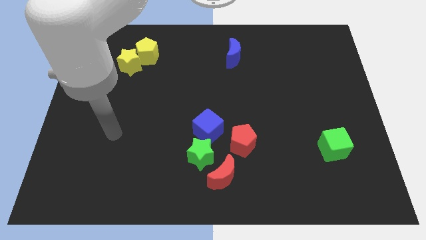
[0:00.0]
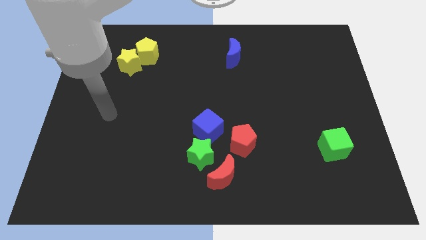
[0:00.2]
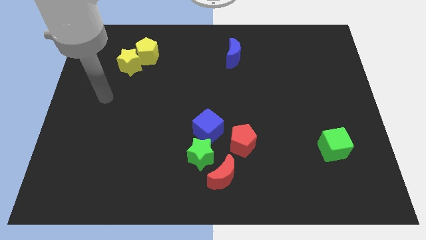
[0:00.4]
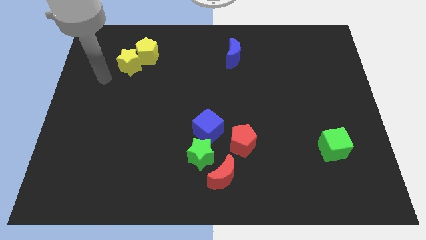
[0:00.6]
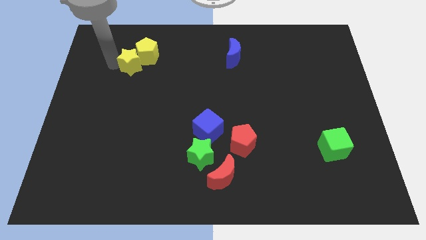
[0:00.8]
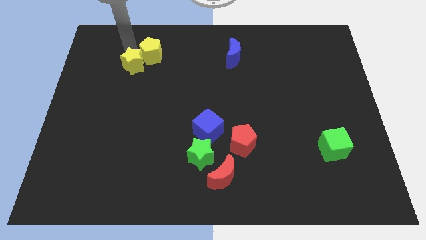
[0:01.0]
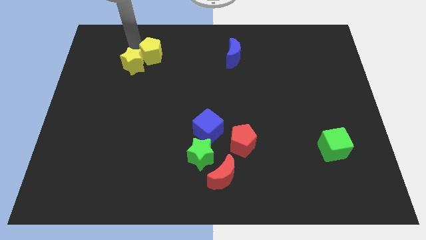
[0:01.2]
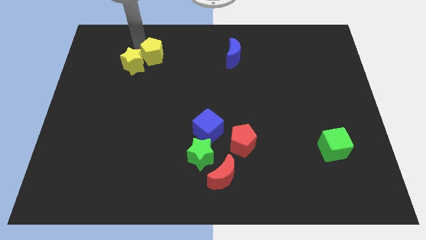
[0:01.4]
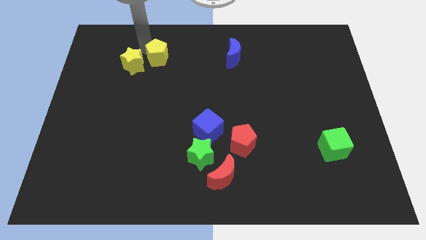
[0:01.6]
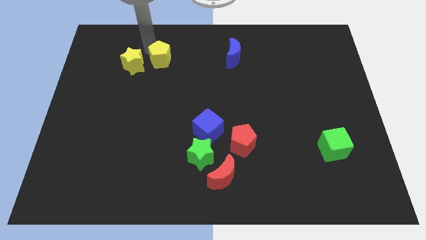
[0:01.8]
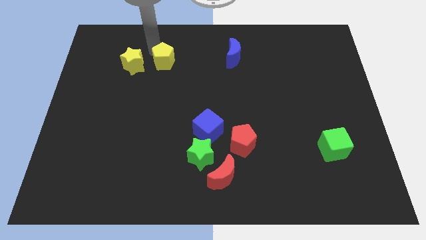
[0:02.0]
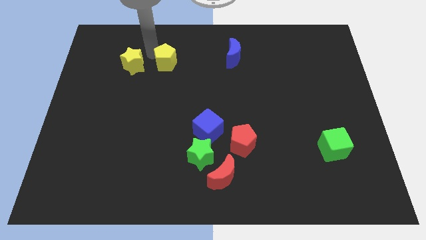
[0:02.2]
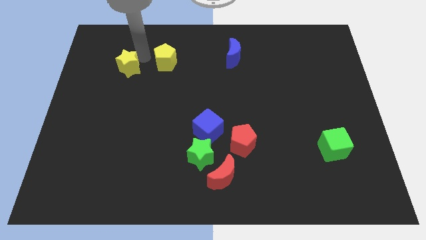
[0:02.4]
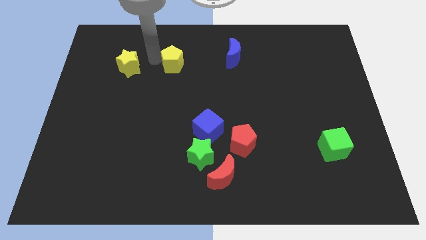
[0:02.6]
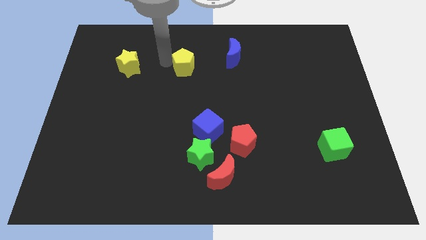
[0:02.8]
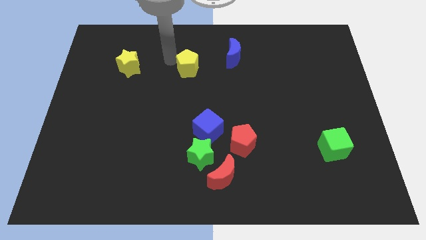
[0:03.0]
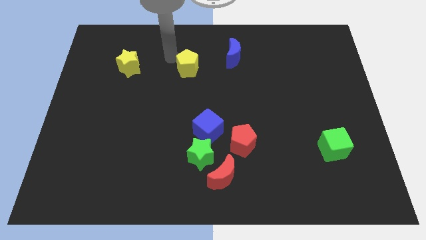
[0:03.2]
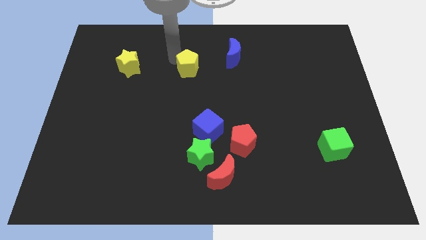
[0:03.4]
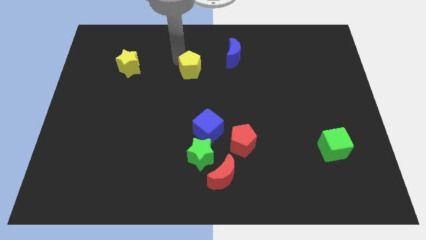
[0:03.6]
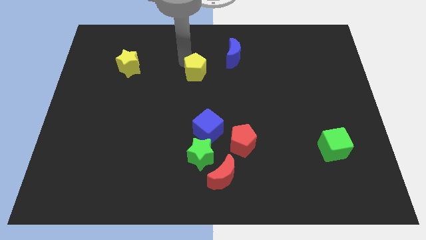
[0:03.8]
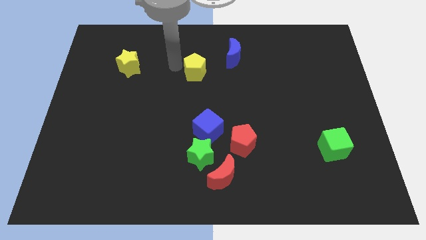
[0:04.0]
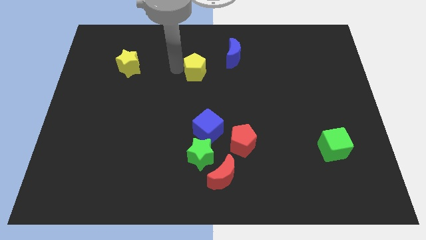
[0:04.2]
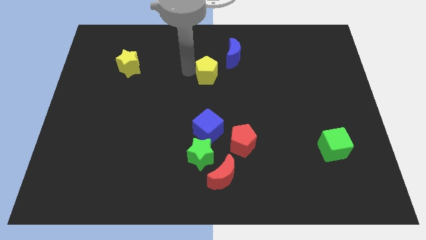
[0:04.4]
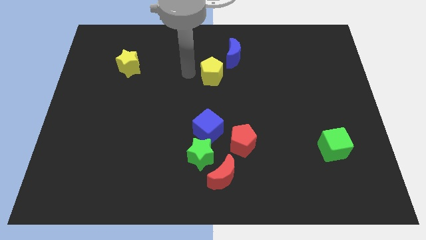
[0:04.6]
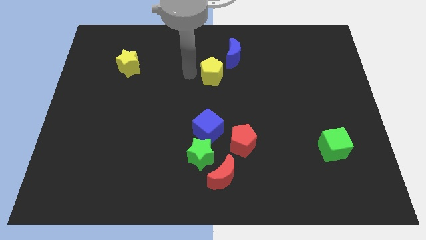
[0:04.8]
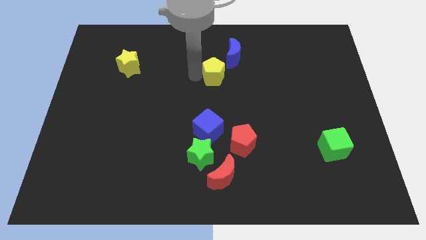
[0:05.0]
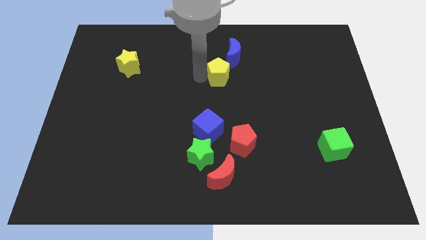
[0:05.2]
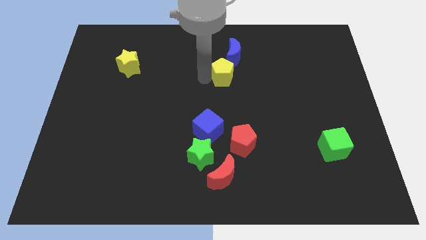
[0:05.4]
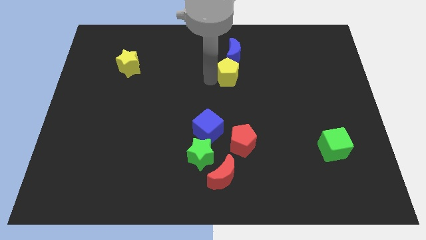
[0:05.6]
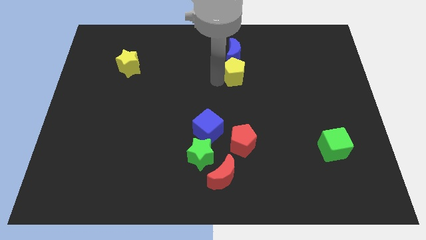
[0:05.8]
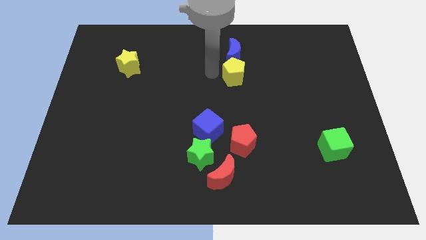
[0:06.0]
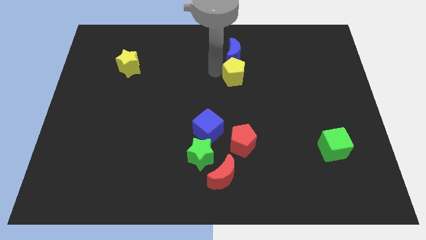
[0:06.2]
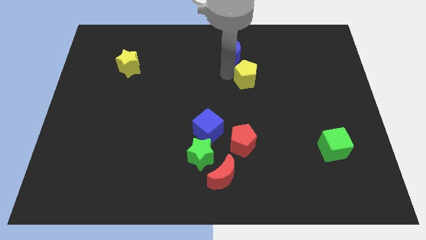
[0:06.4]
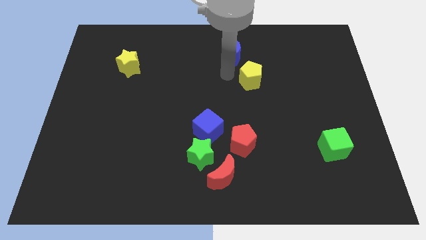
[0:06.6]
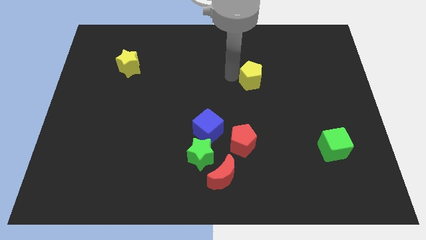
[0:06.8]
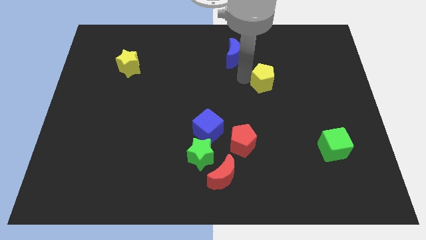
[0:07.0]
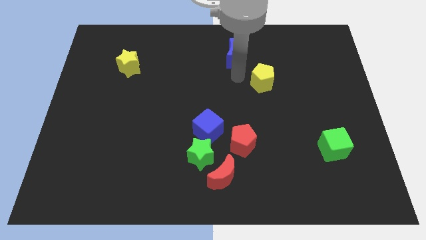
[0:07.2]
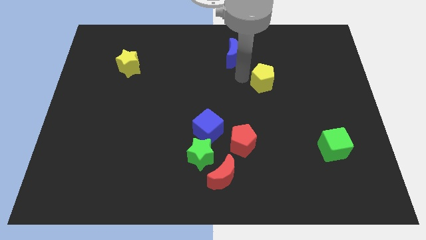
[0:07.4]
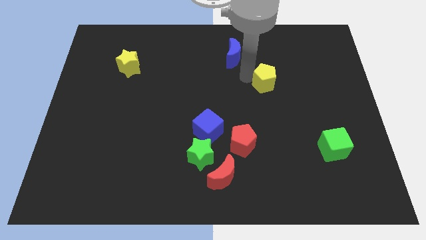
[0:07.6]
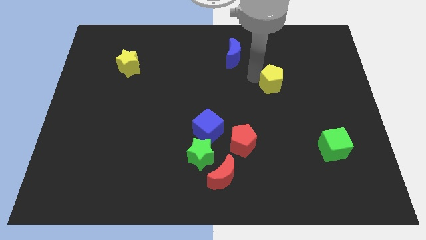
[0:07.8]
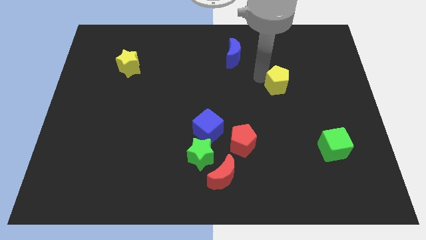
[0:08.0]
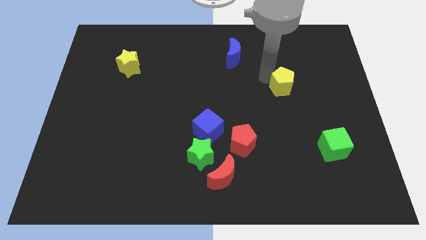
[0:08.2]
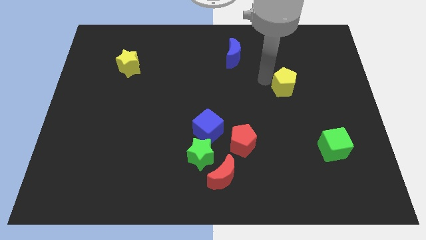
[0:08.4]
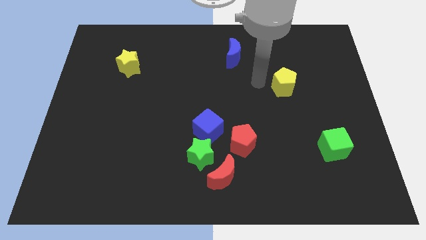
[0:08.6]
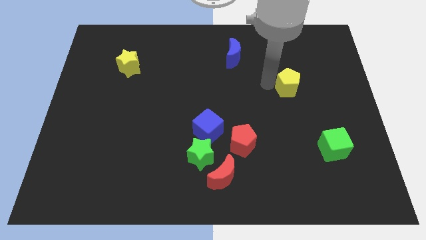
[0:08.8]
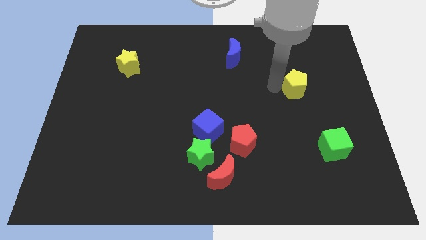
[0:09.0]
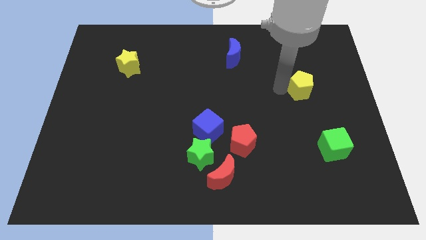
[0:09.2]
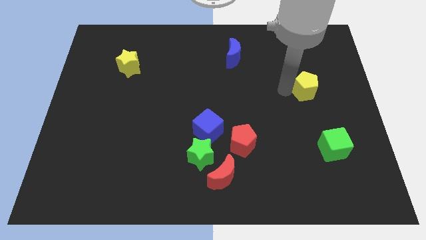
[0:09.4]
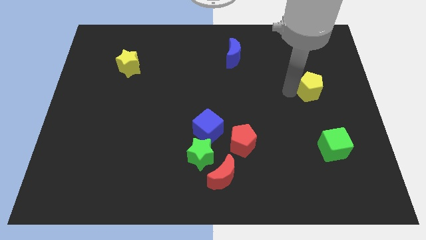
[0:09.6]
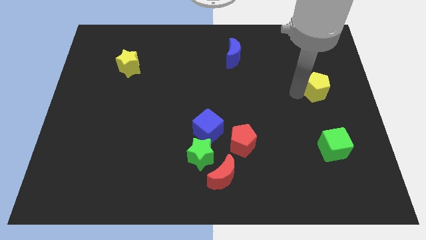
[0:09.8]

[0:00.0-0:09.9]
push the yellow pentagon to the center right

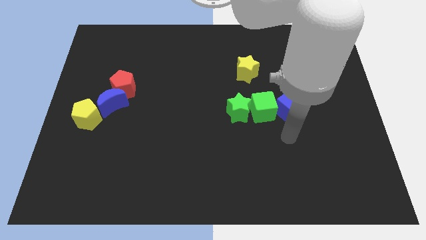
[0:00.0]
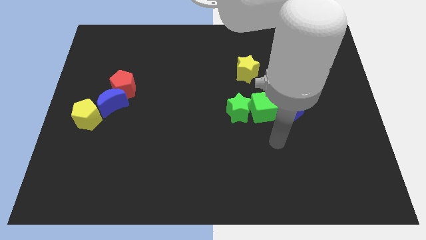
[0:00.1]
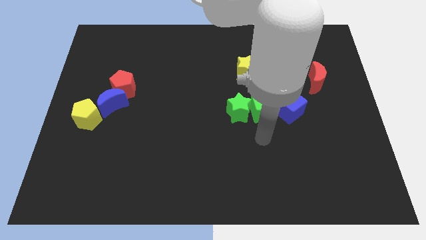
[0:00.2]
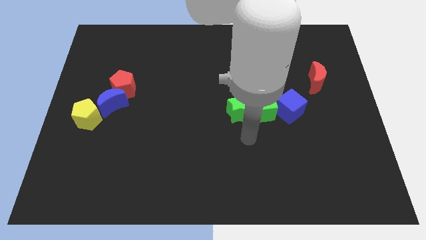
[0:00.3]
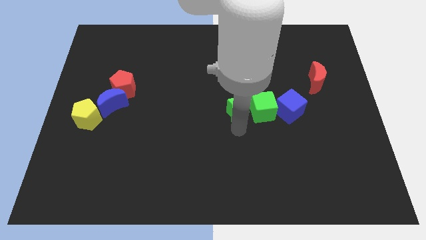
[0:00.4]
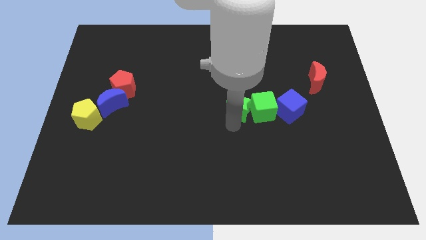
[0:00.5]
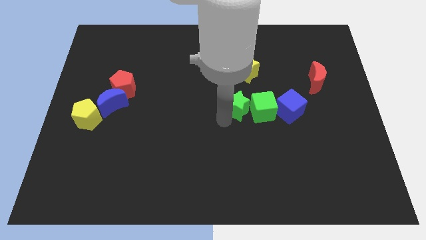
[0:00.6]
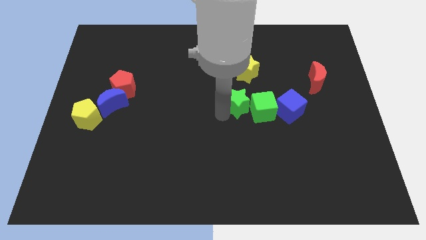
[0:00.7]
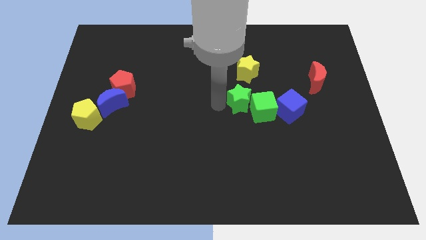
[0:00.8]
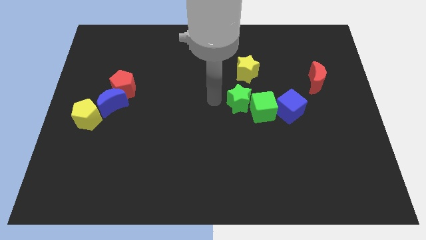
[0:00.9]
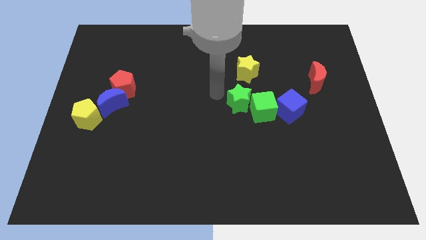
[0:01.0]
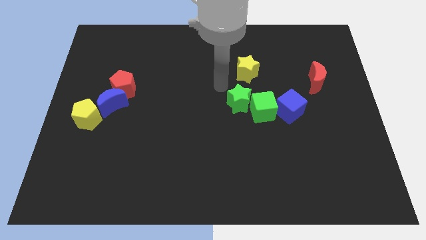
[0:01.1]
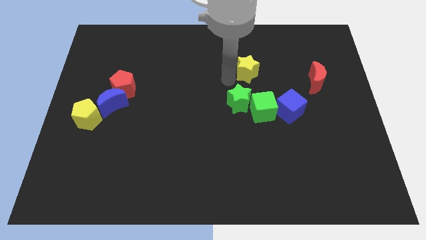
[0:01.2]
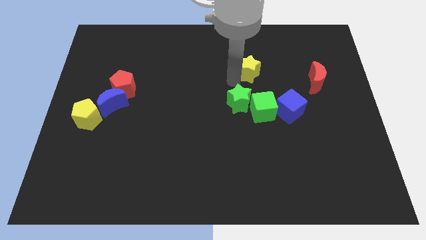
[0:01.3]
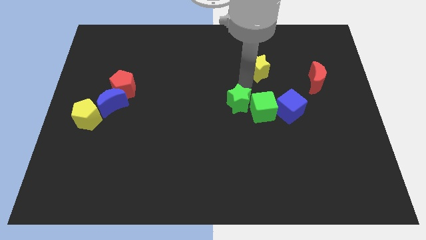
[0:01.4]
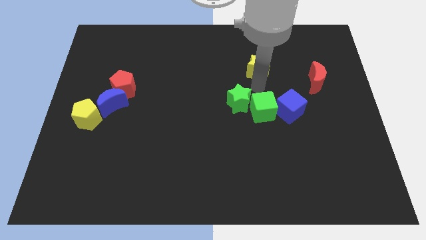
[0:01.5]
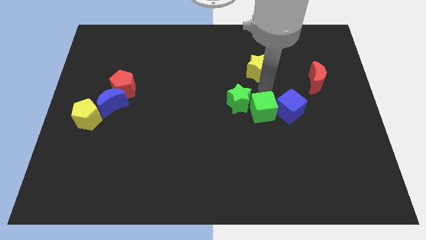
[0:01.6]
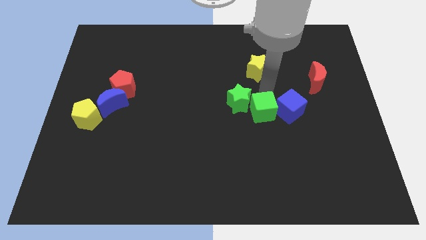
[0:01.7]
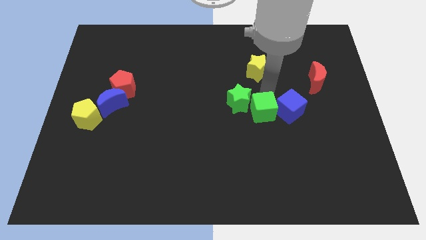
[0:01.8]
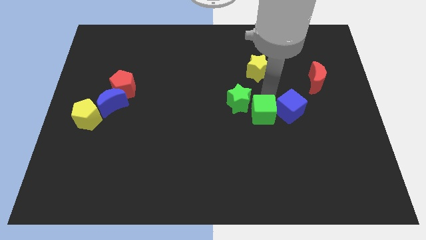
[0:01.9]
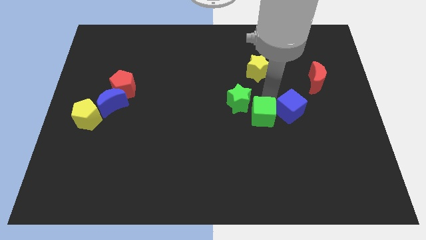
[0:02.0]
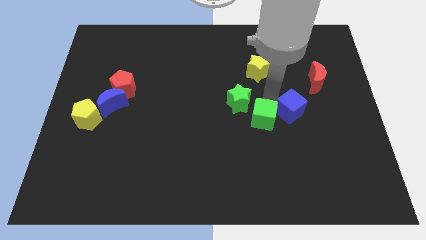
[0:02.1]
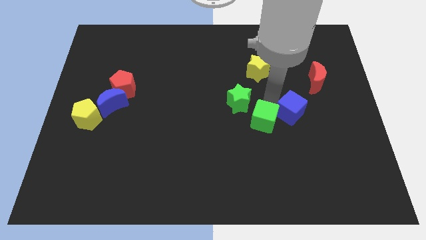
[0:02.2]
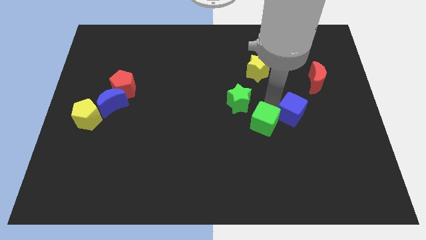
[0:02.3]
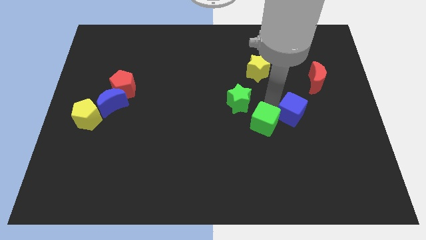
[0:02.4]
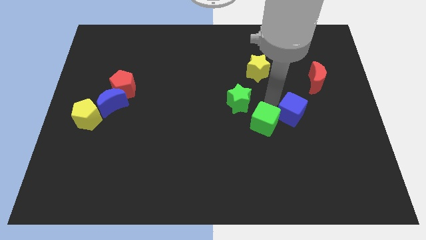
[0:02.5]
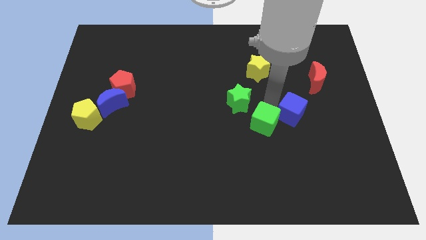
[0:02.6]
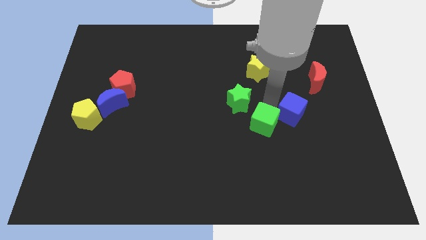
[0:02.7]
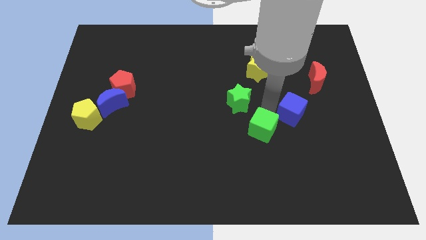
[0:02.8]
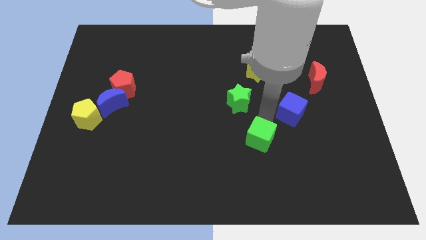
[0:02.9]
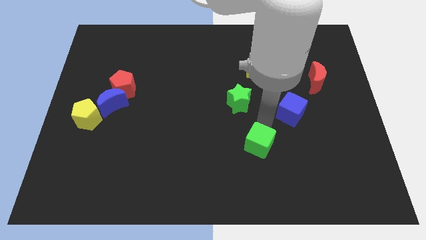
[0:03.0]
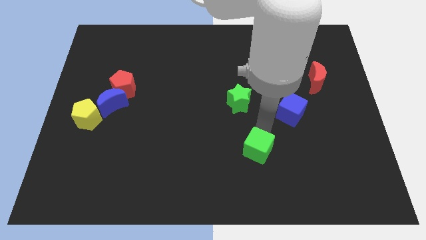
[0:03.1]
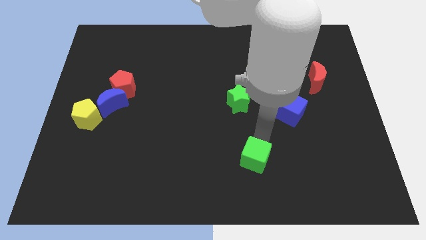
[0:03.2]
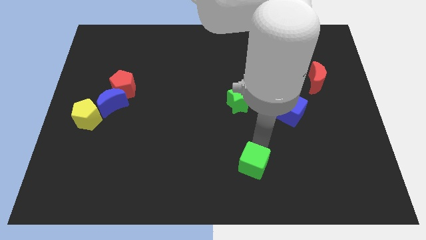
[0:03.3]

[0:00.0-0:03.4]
push the green cube to the bottom
